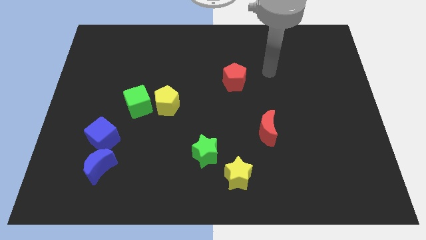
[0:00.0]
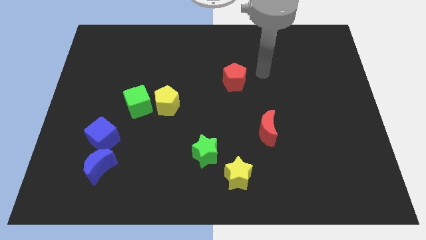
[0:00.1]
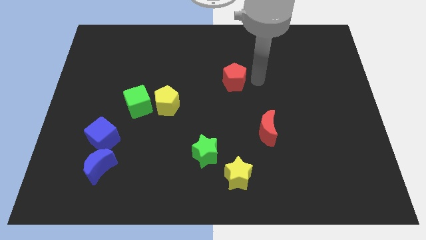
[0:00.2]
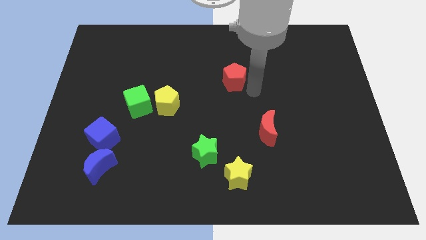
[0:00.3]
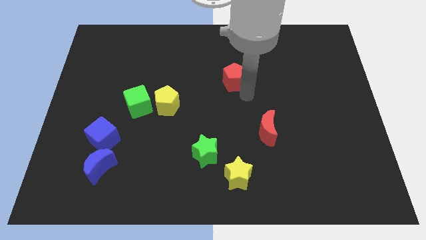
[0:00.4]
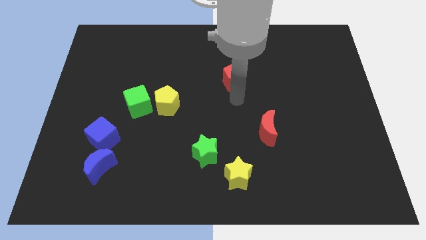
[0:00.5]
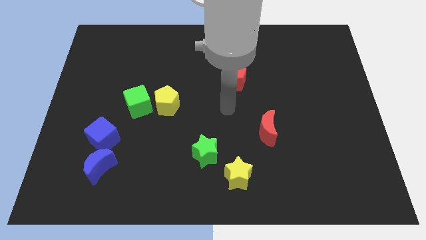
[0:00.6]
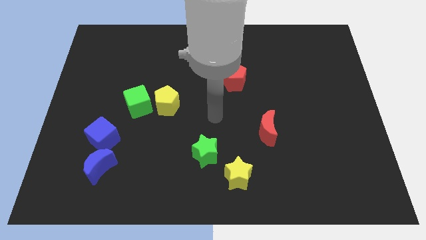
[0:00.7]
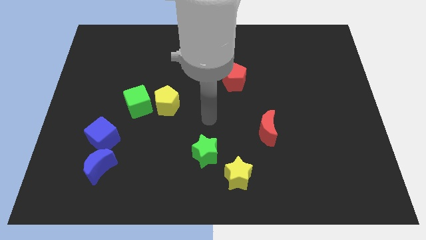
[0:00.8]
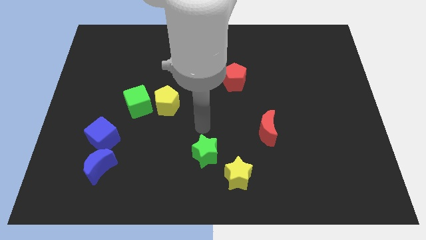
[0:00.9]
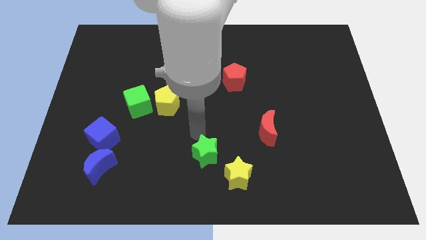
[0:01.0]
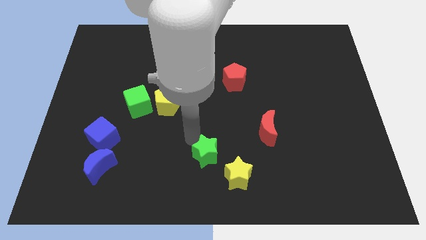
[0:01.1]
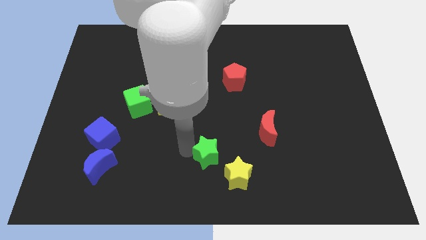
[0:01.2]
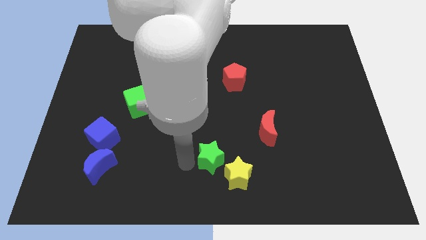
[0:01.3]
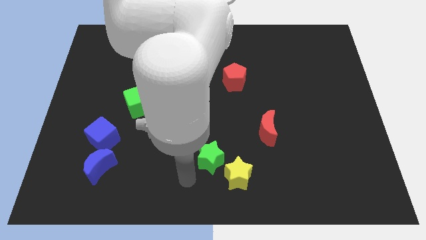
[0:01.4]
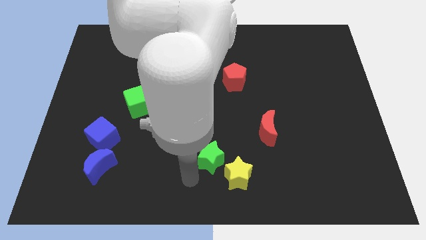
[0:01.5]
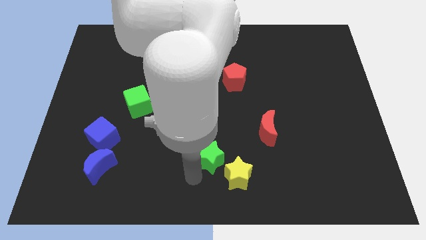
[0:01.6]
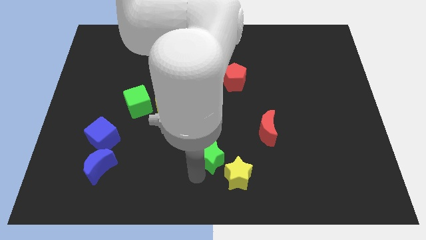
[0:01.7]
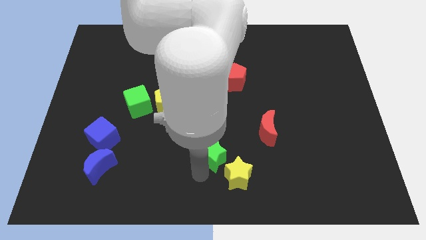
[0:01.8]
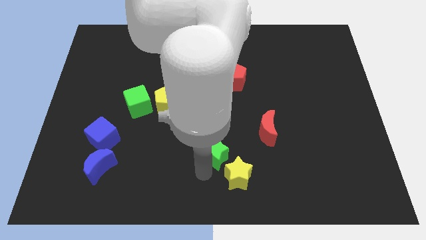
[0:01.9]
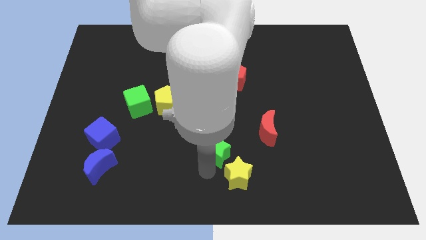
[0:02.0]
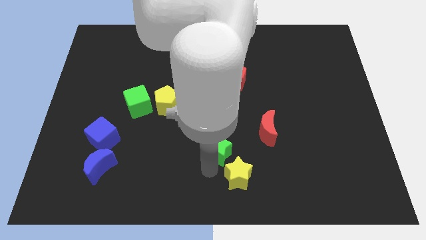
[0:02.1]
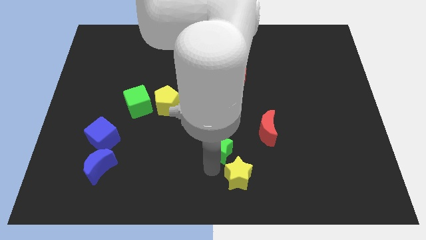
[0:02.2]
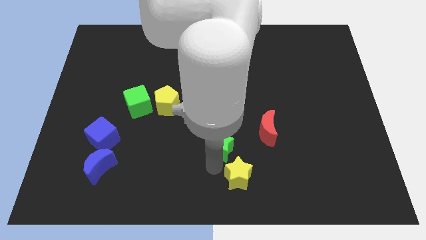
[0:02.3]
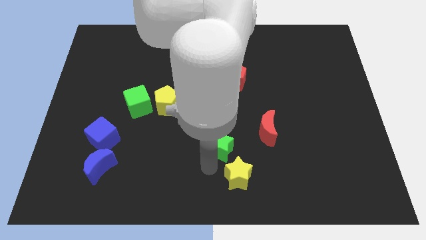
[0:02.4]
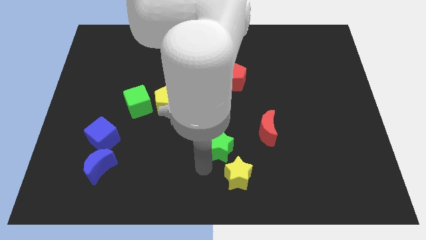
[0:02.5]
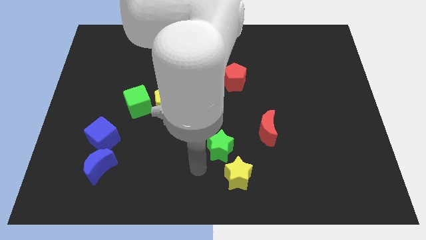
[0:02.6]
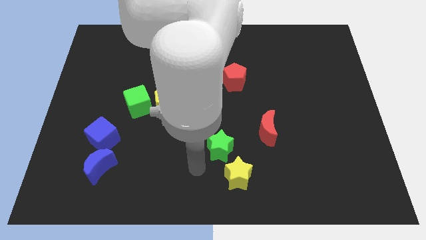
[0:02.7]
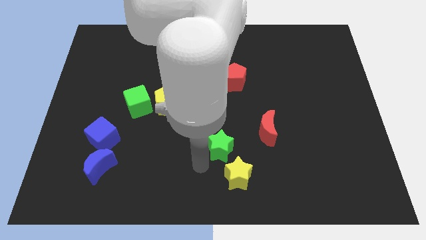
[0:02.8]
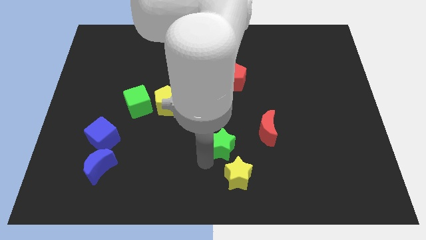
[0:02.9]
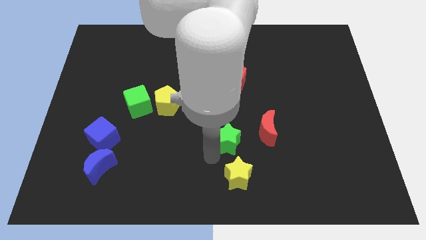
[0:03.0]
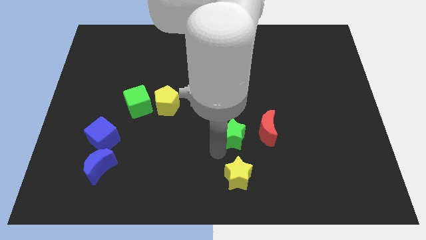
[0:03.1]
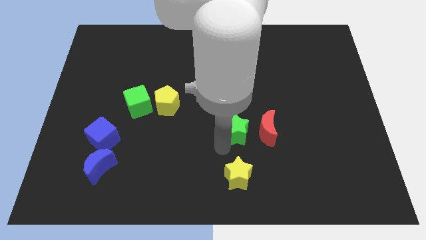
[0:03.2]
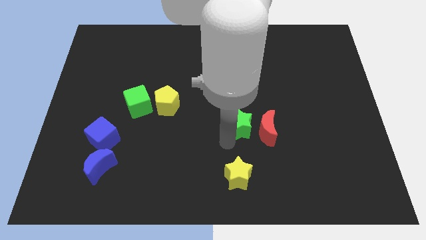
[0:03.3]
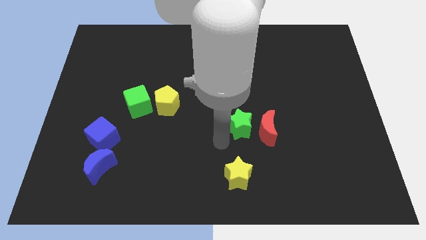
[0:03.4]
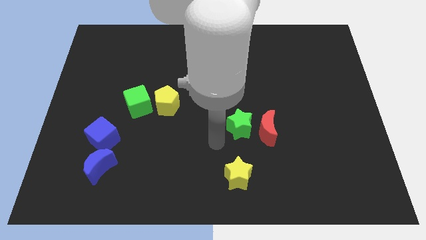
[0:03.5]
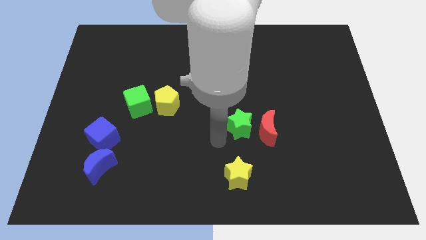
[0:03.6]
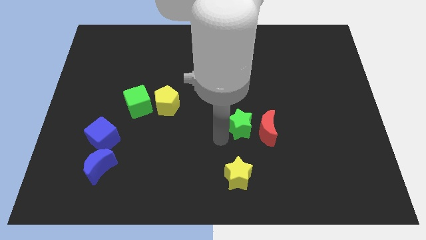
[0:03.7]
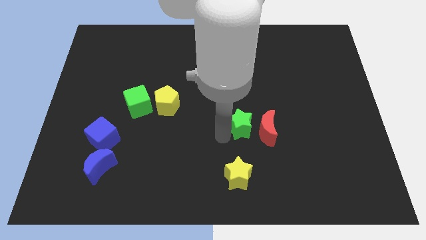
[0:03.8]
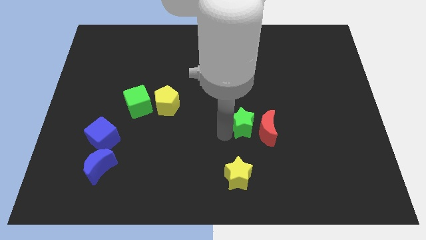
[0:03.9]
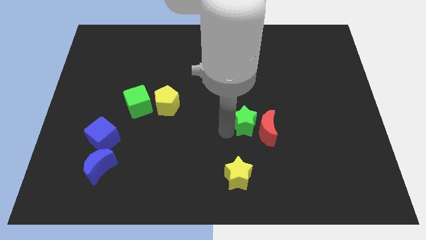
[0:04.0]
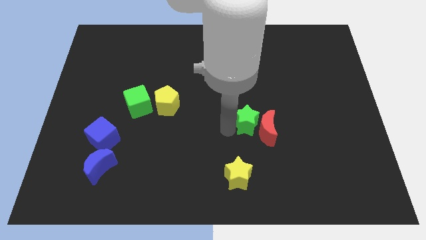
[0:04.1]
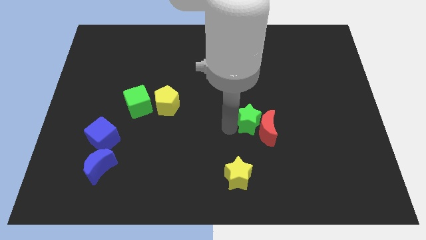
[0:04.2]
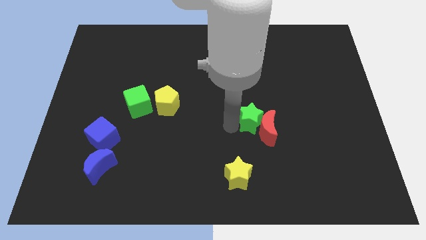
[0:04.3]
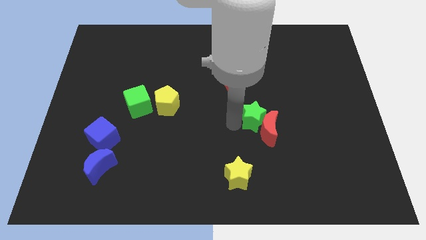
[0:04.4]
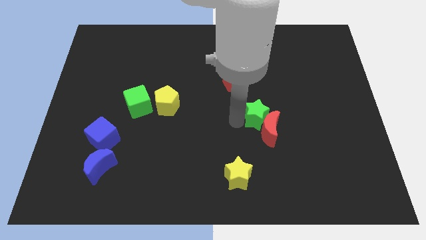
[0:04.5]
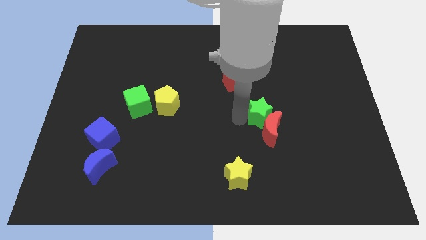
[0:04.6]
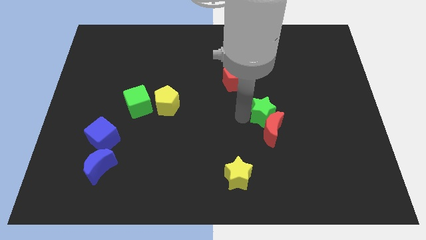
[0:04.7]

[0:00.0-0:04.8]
move the green star to the top right of the red moon

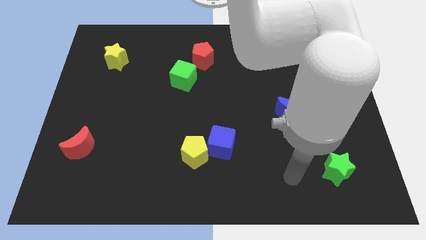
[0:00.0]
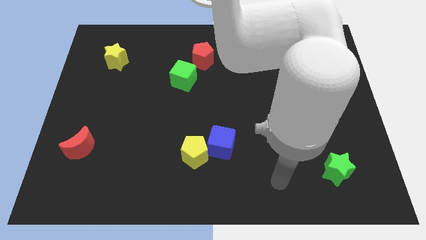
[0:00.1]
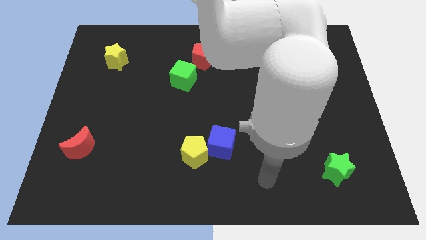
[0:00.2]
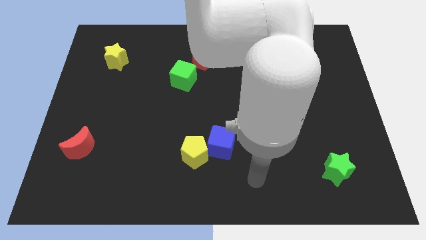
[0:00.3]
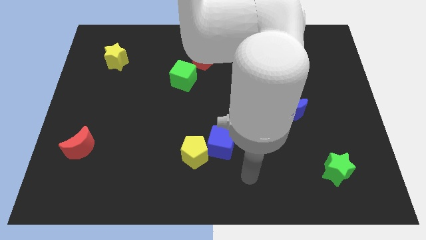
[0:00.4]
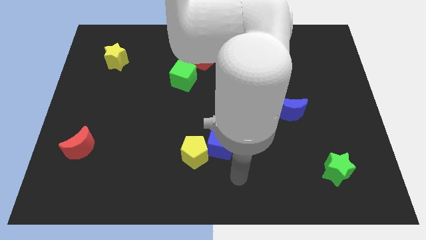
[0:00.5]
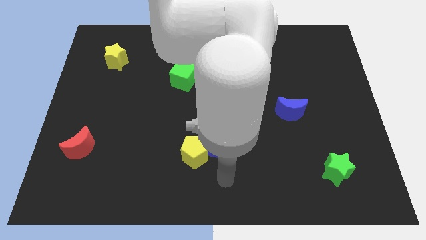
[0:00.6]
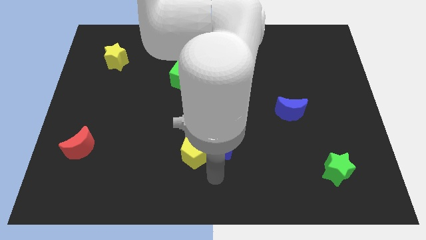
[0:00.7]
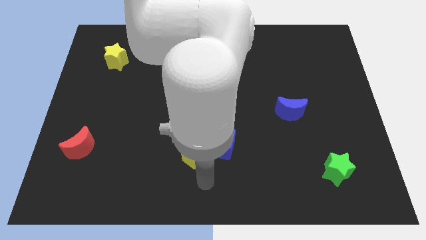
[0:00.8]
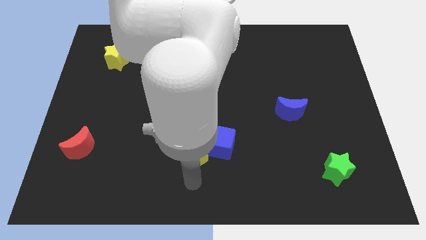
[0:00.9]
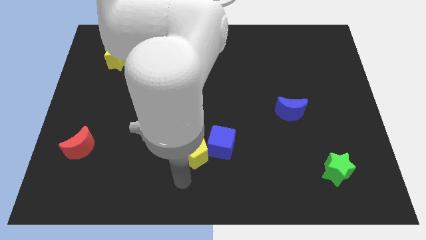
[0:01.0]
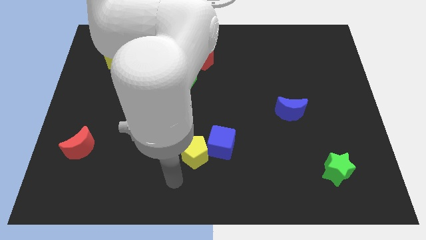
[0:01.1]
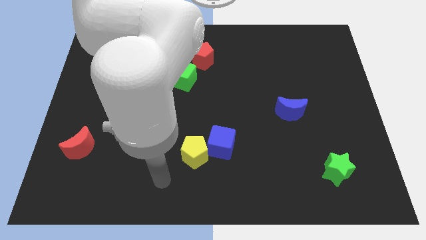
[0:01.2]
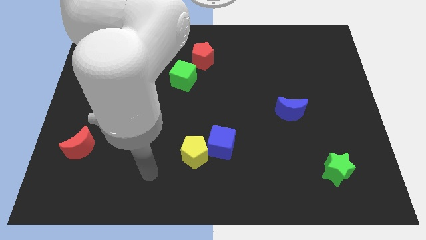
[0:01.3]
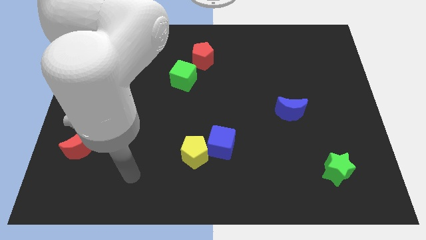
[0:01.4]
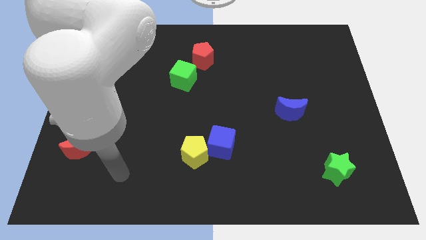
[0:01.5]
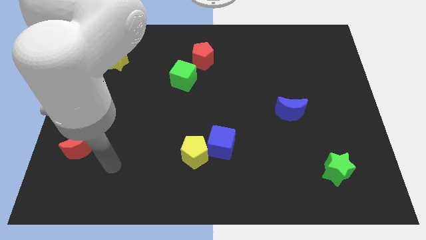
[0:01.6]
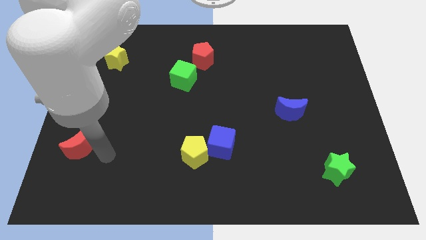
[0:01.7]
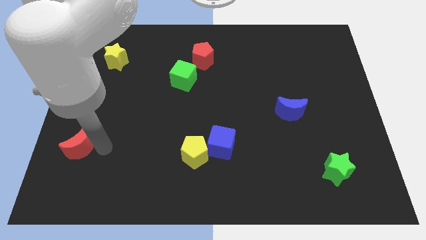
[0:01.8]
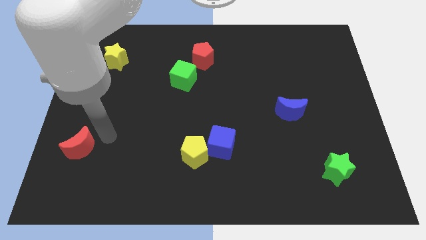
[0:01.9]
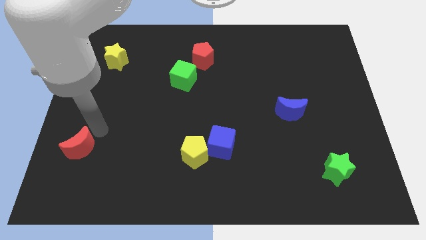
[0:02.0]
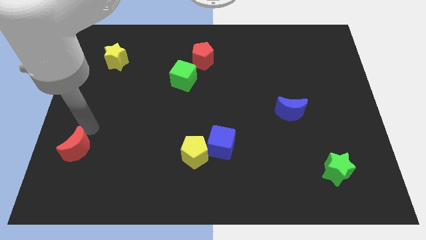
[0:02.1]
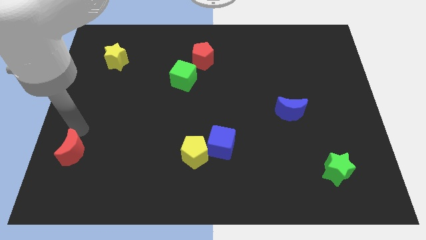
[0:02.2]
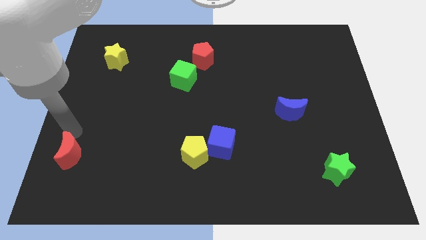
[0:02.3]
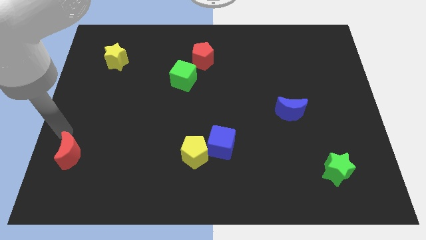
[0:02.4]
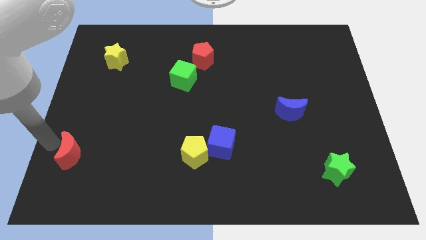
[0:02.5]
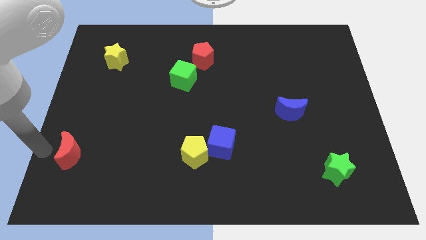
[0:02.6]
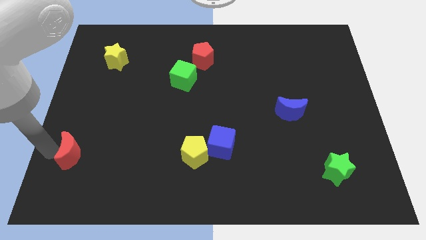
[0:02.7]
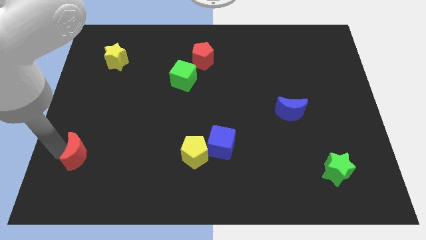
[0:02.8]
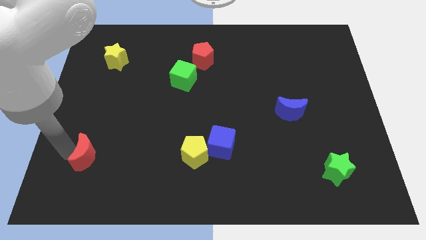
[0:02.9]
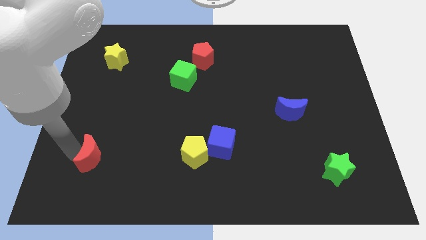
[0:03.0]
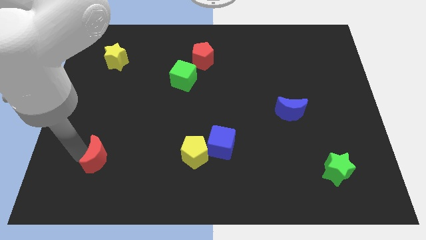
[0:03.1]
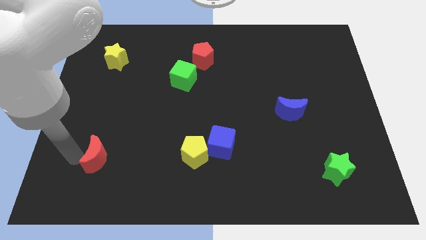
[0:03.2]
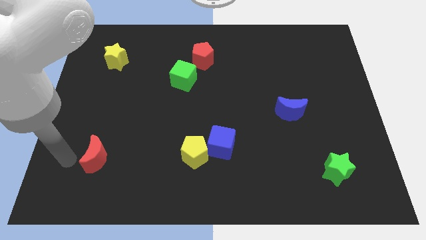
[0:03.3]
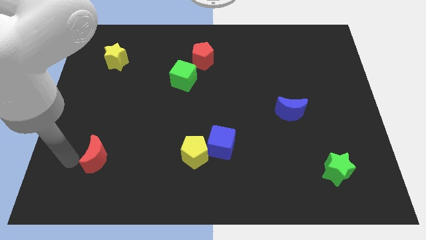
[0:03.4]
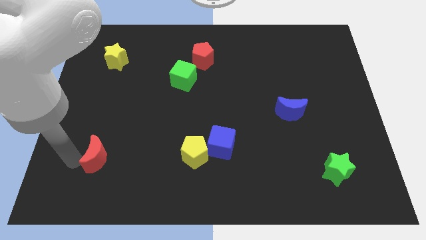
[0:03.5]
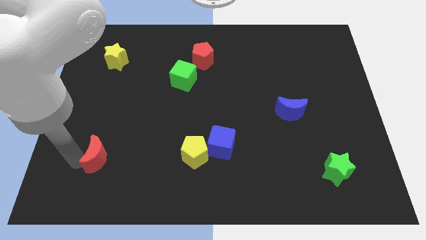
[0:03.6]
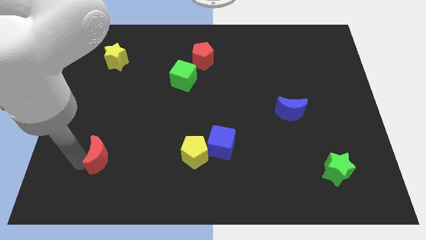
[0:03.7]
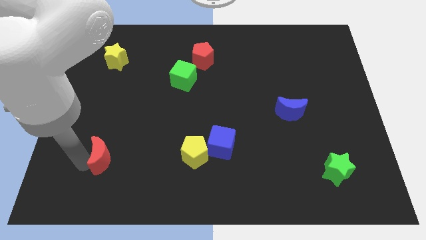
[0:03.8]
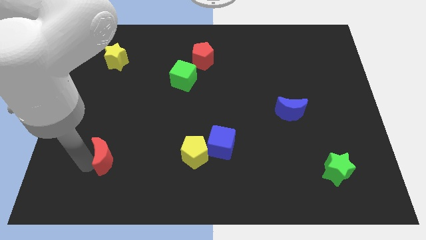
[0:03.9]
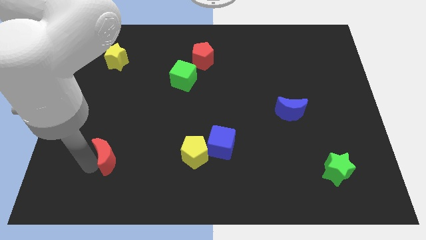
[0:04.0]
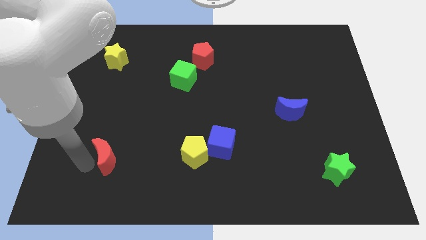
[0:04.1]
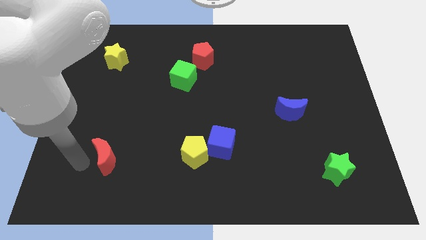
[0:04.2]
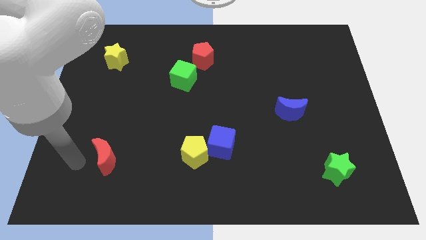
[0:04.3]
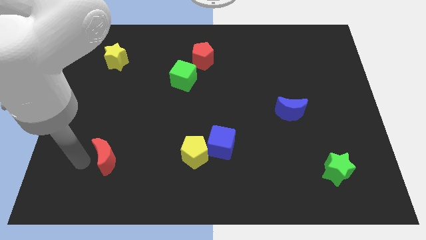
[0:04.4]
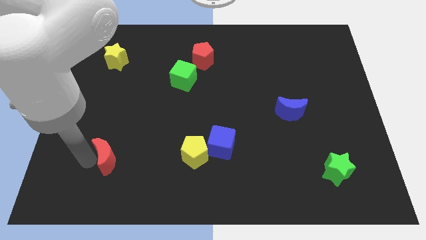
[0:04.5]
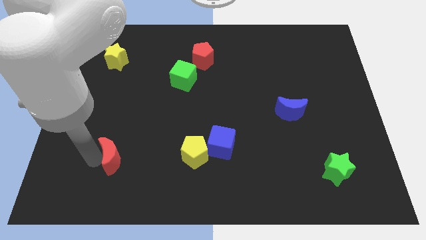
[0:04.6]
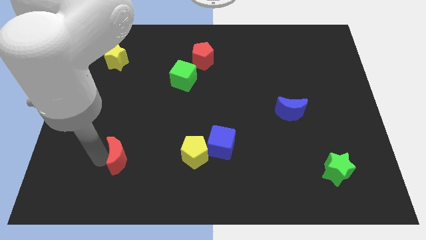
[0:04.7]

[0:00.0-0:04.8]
put the red moon to the left of the yellow pentagon
